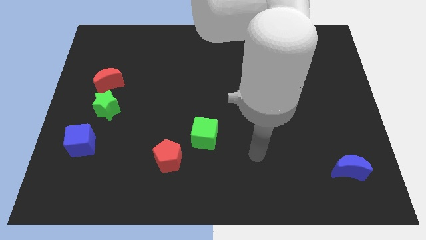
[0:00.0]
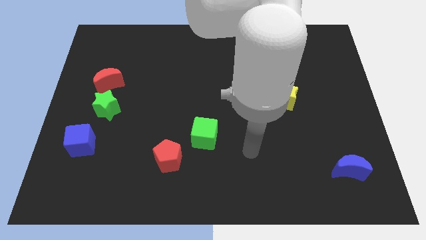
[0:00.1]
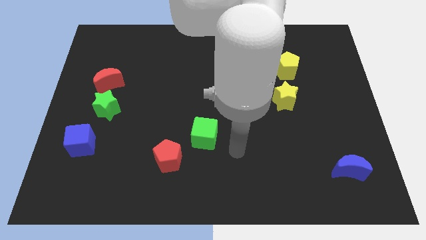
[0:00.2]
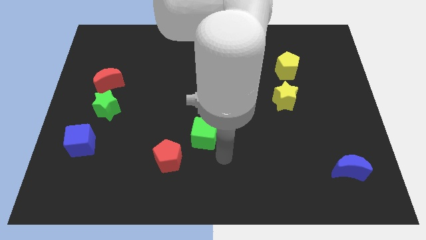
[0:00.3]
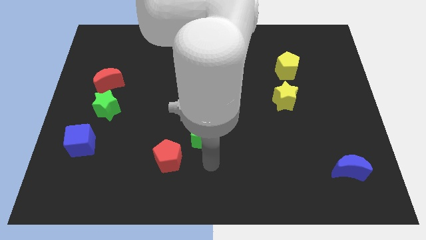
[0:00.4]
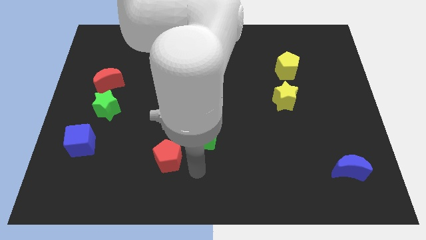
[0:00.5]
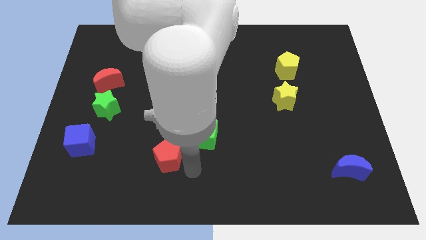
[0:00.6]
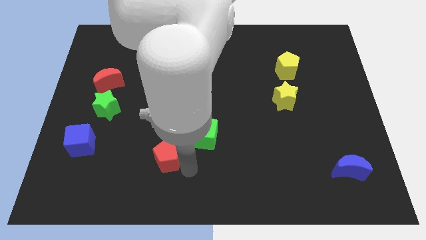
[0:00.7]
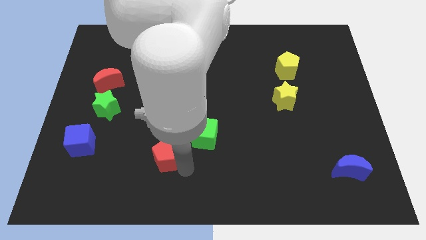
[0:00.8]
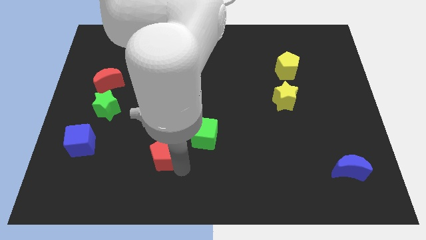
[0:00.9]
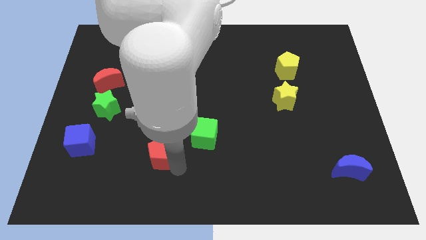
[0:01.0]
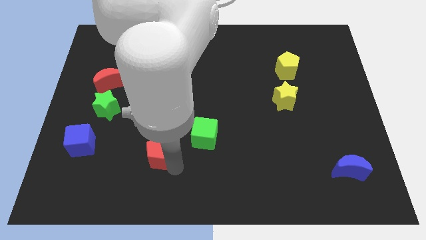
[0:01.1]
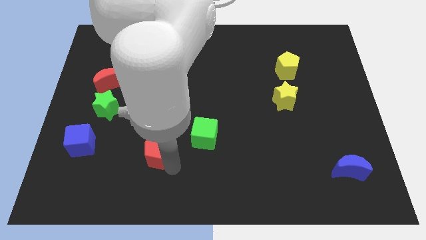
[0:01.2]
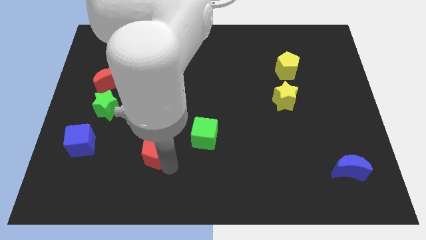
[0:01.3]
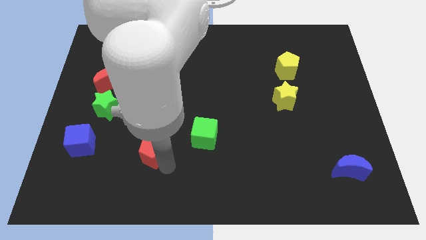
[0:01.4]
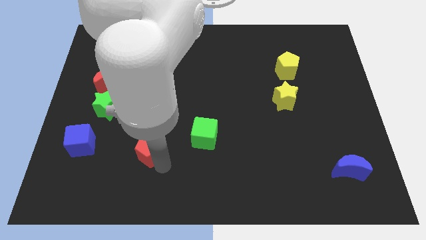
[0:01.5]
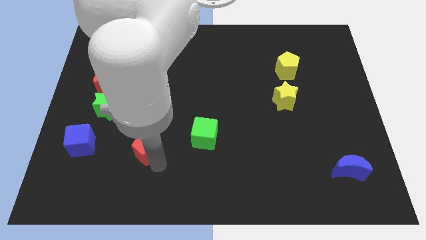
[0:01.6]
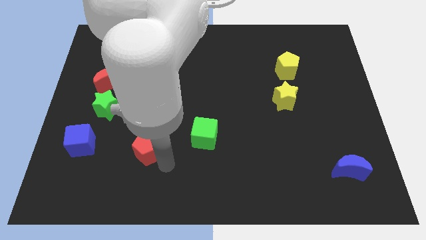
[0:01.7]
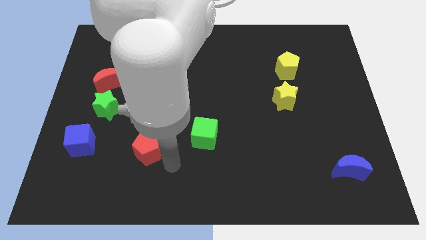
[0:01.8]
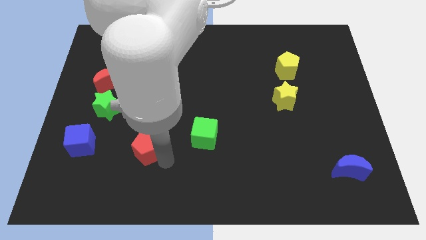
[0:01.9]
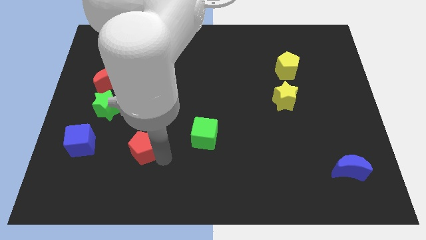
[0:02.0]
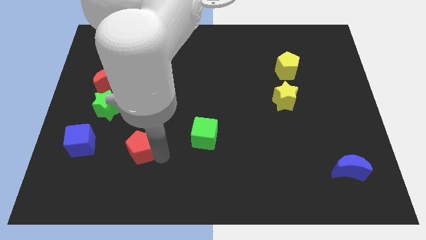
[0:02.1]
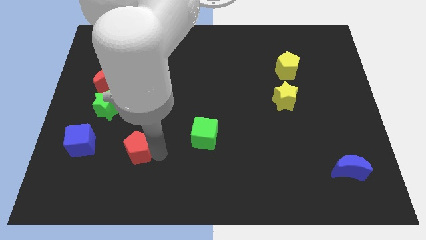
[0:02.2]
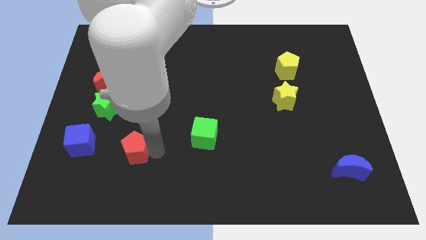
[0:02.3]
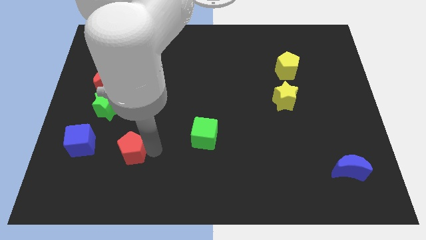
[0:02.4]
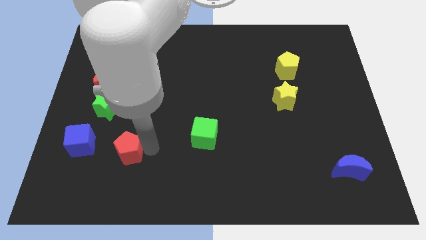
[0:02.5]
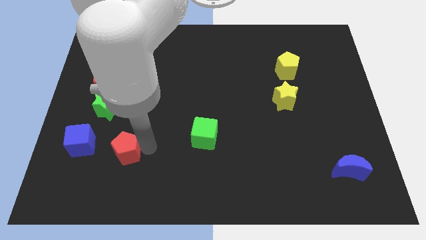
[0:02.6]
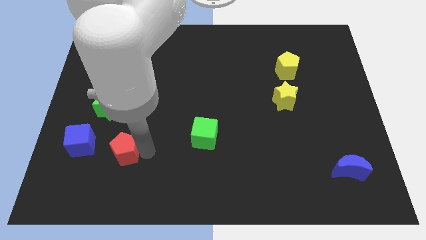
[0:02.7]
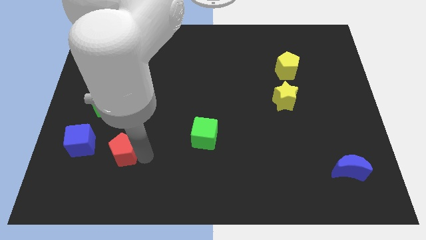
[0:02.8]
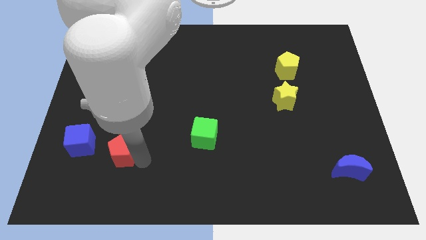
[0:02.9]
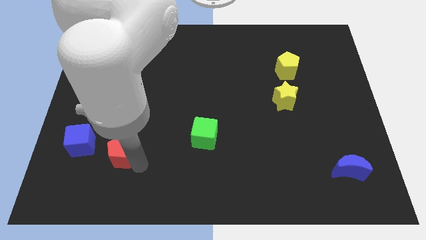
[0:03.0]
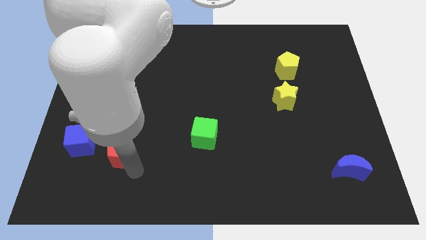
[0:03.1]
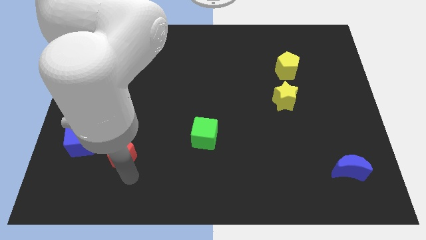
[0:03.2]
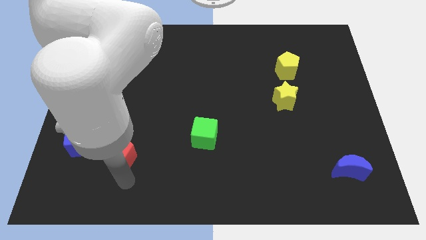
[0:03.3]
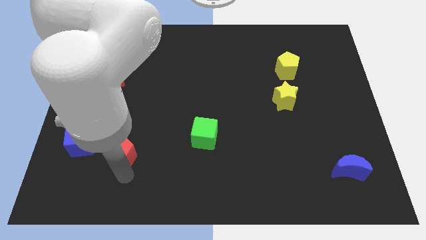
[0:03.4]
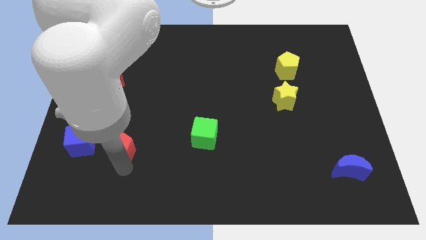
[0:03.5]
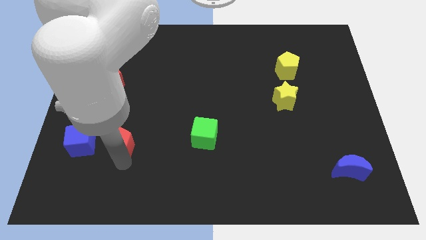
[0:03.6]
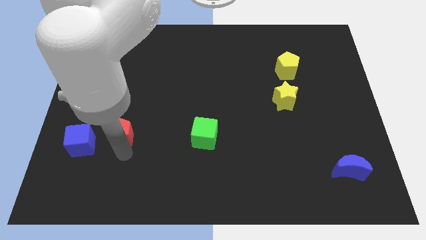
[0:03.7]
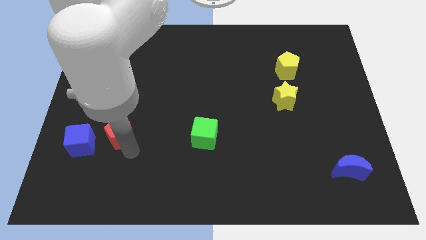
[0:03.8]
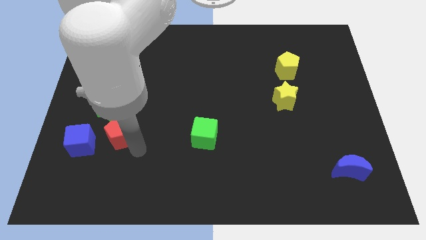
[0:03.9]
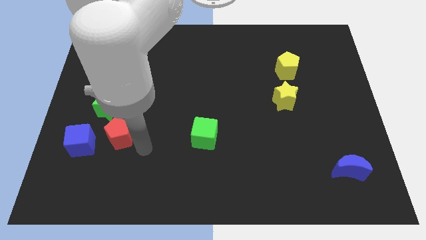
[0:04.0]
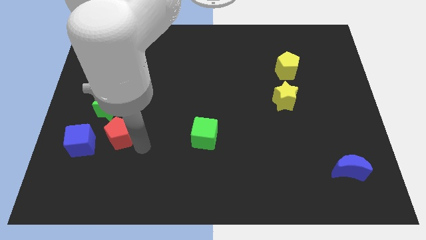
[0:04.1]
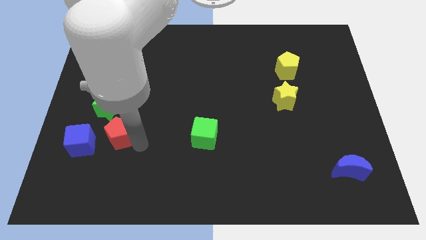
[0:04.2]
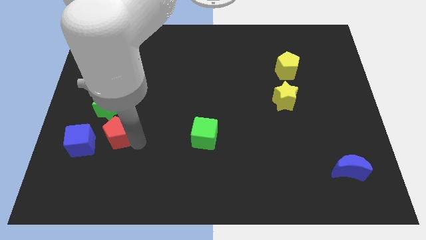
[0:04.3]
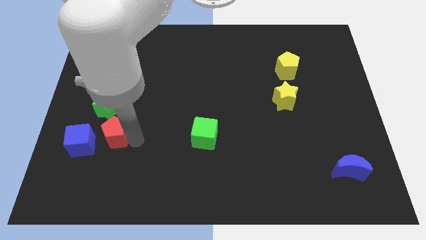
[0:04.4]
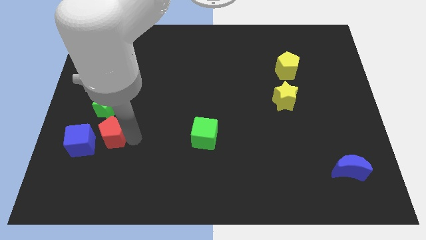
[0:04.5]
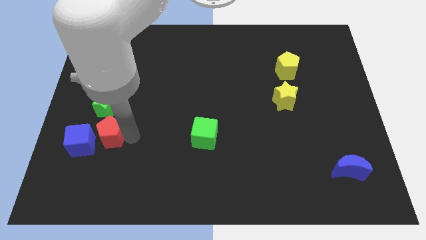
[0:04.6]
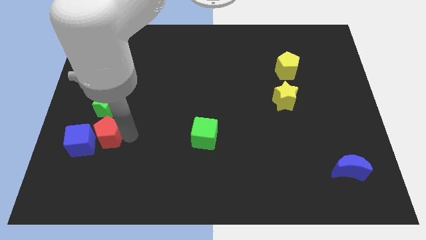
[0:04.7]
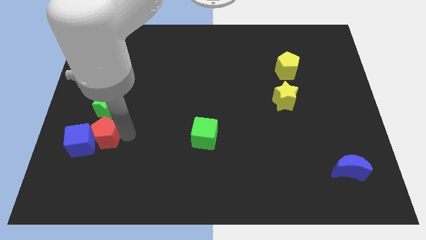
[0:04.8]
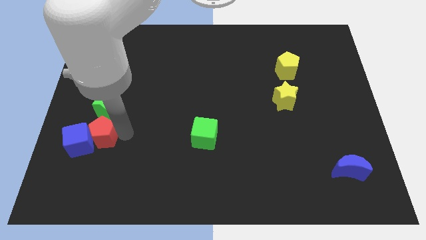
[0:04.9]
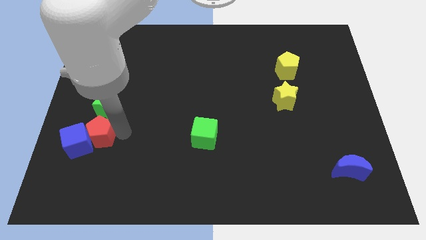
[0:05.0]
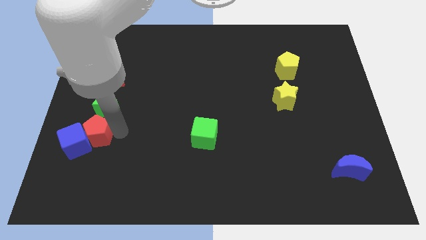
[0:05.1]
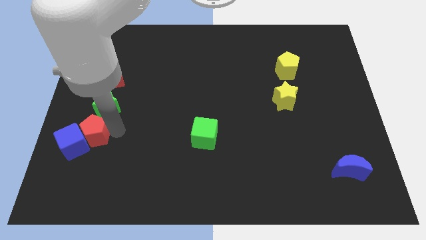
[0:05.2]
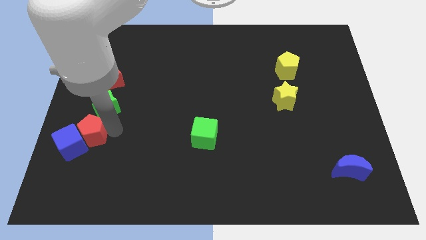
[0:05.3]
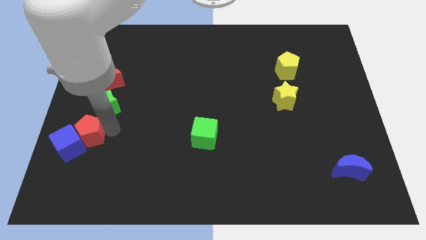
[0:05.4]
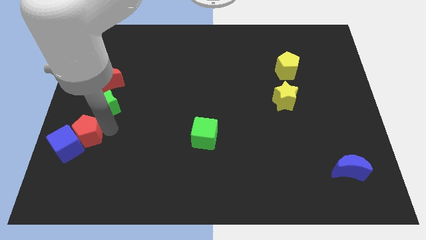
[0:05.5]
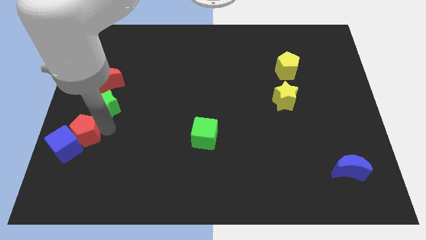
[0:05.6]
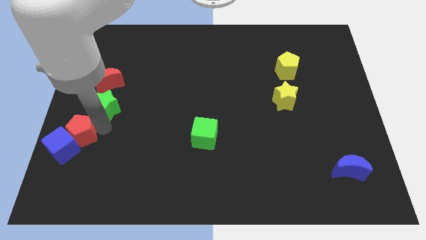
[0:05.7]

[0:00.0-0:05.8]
move the red pentagon to the left side of the board
